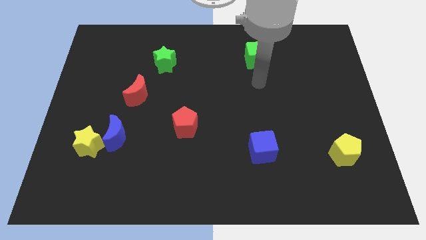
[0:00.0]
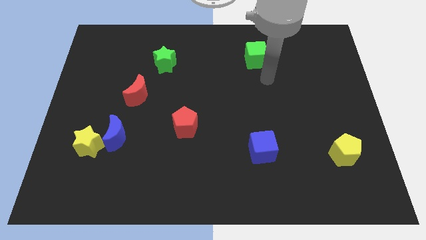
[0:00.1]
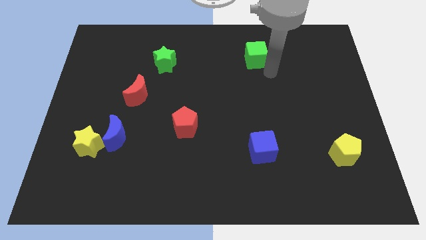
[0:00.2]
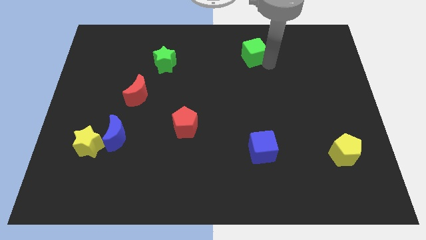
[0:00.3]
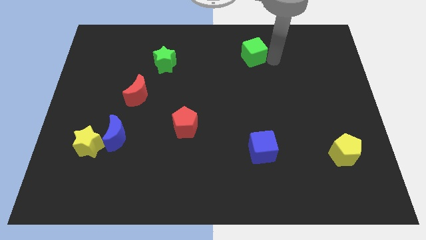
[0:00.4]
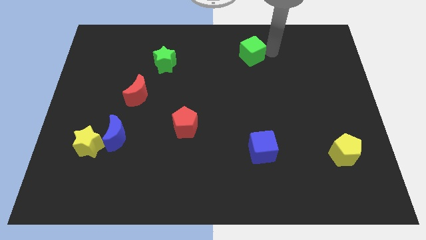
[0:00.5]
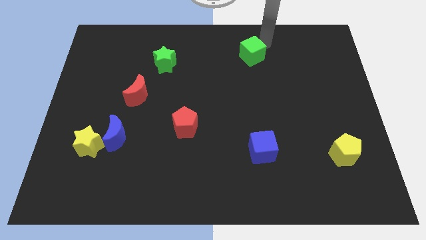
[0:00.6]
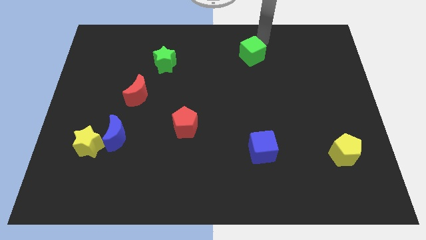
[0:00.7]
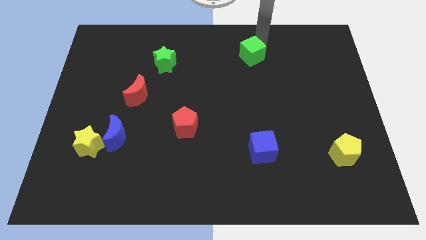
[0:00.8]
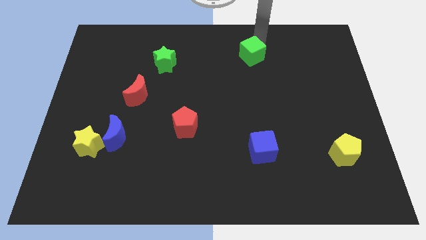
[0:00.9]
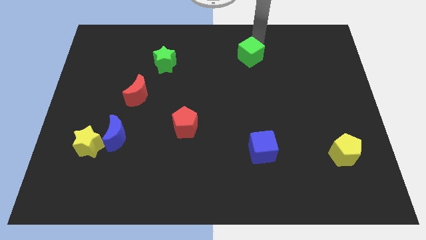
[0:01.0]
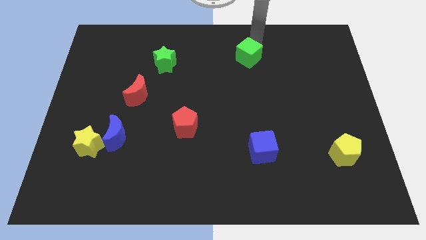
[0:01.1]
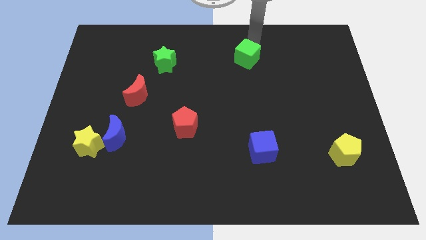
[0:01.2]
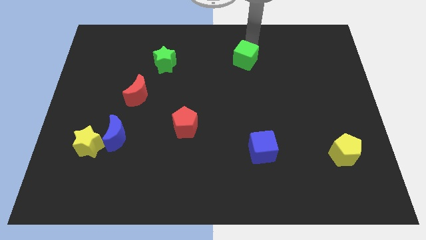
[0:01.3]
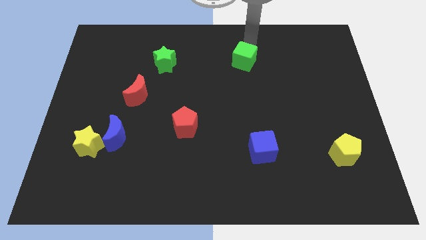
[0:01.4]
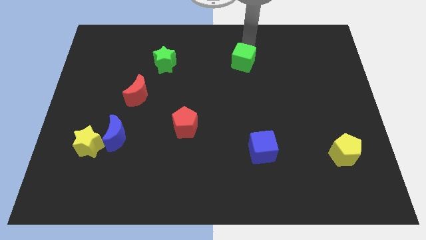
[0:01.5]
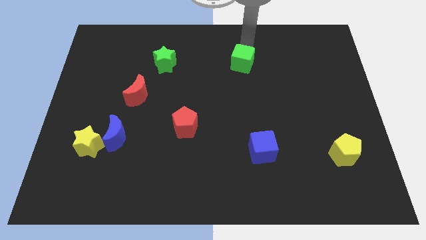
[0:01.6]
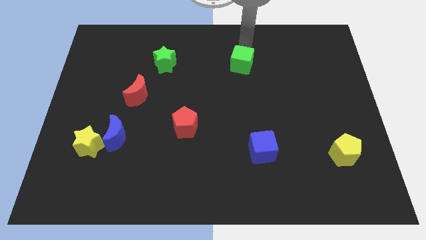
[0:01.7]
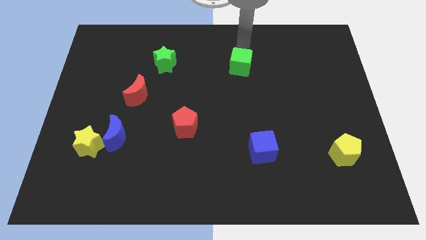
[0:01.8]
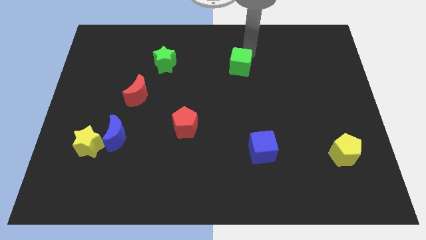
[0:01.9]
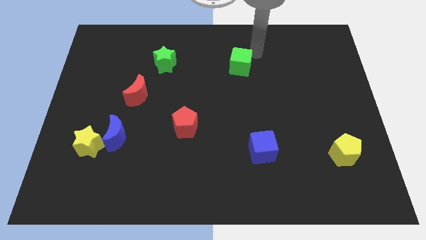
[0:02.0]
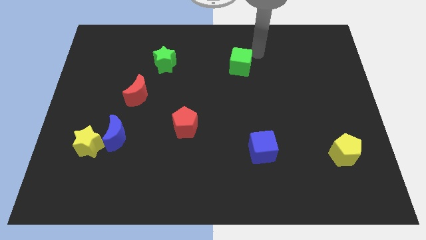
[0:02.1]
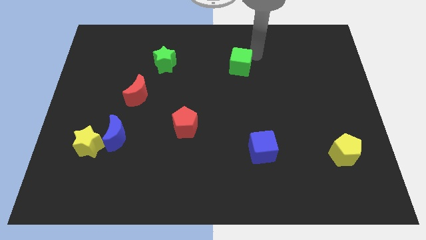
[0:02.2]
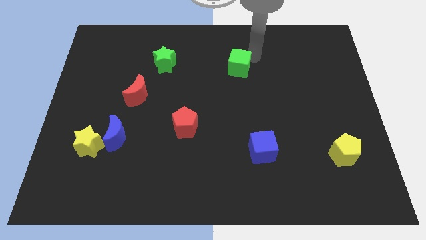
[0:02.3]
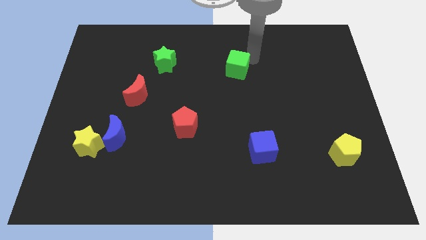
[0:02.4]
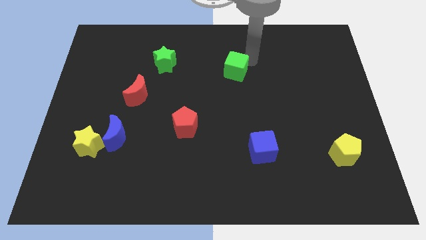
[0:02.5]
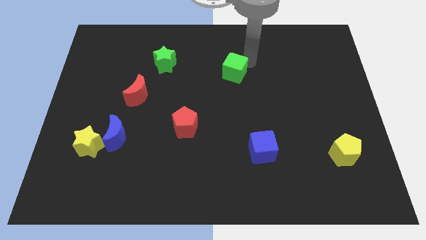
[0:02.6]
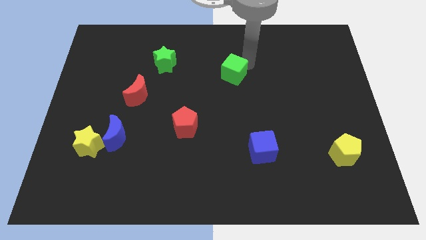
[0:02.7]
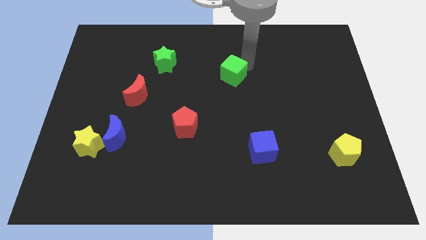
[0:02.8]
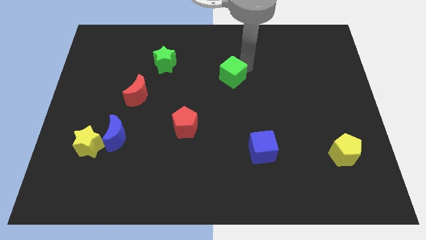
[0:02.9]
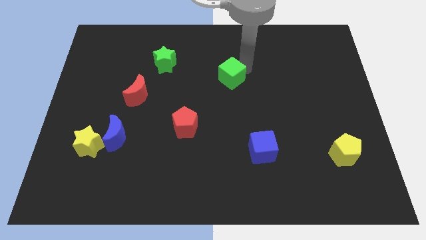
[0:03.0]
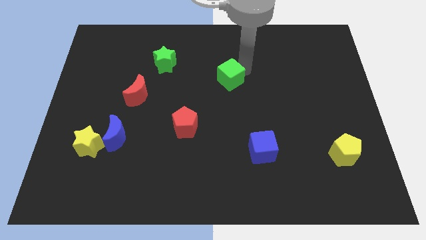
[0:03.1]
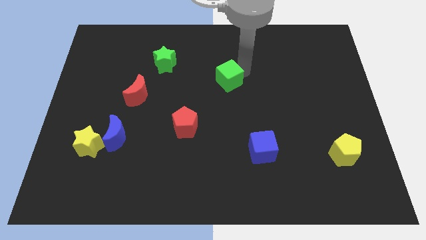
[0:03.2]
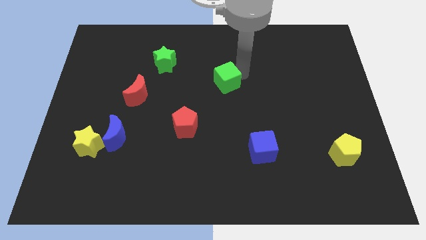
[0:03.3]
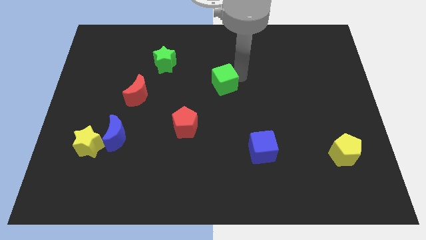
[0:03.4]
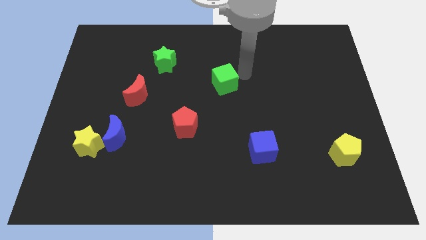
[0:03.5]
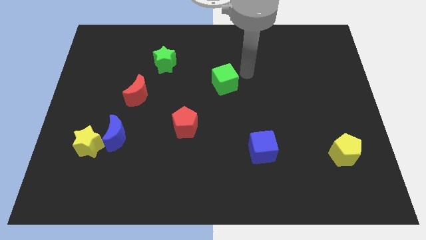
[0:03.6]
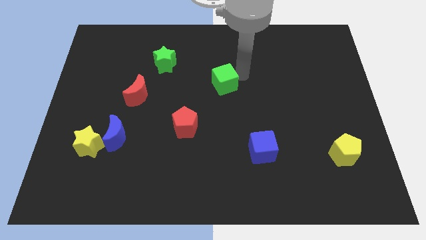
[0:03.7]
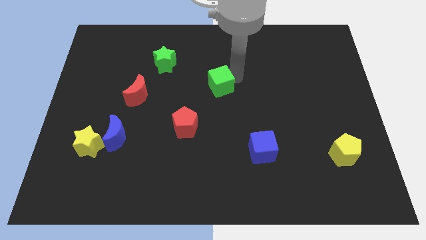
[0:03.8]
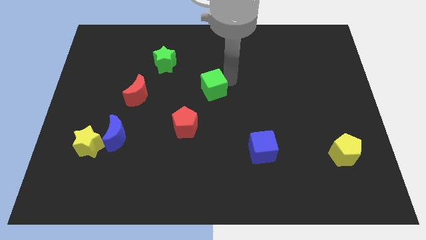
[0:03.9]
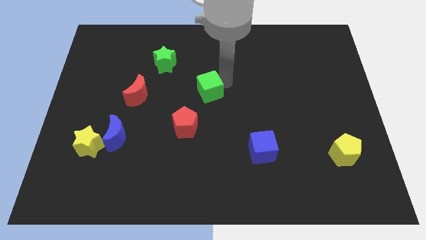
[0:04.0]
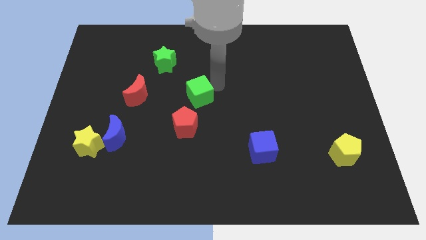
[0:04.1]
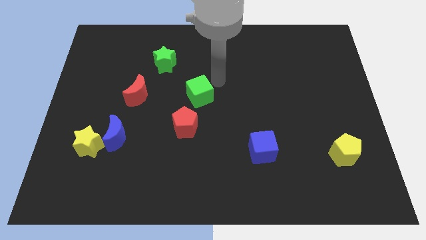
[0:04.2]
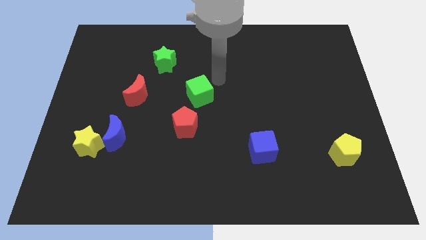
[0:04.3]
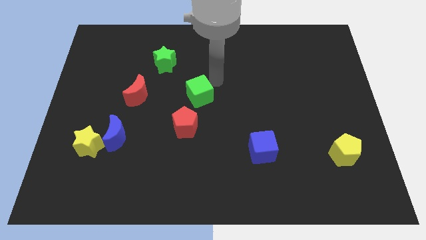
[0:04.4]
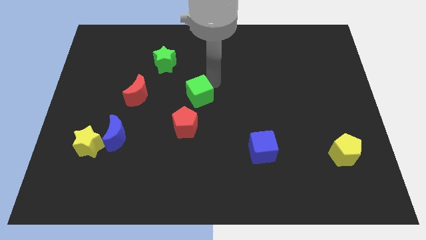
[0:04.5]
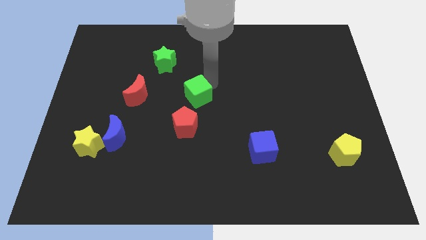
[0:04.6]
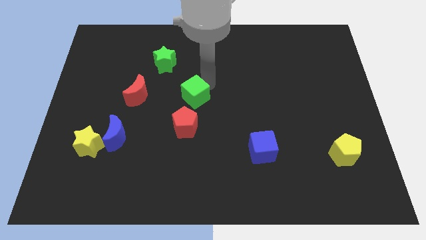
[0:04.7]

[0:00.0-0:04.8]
push the green cube down and left diagonally

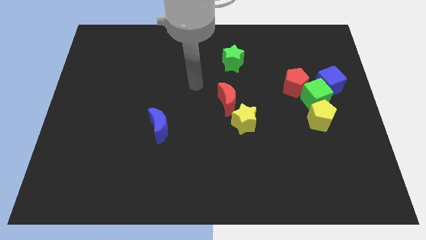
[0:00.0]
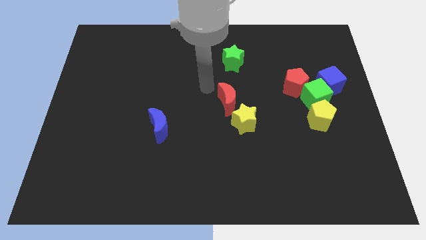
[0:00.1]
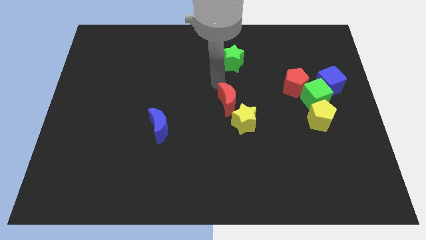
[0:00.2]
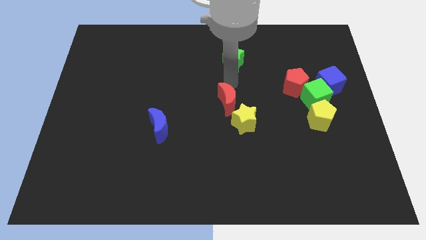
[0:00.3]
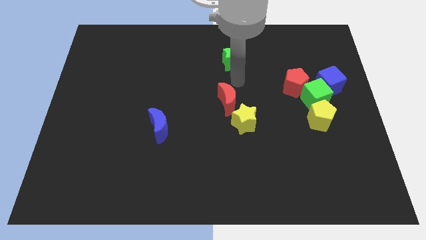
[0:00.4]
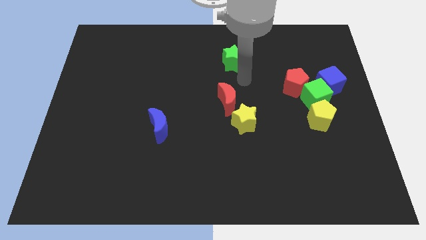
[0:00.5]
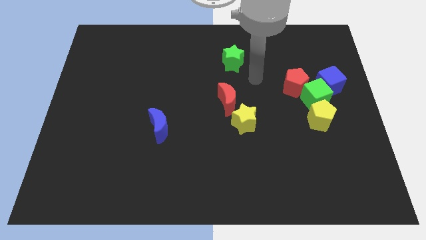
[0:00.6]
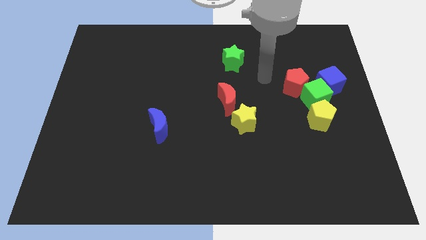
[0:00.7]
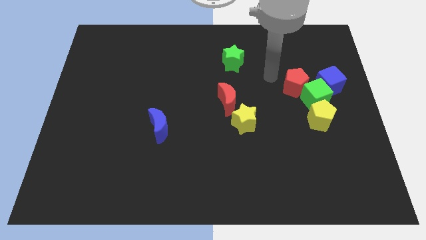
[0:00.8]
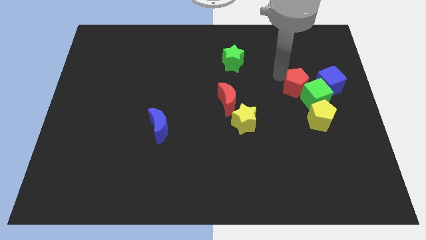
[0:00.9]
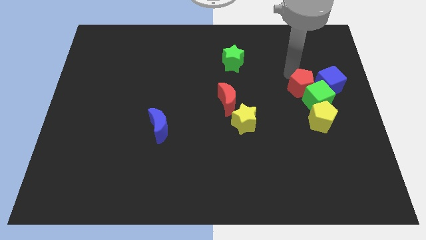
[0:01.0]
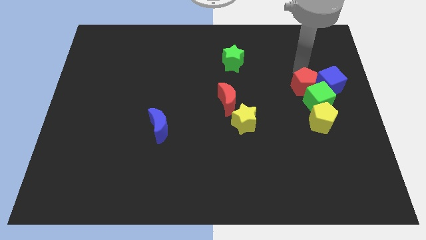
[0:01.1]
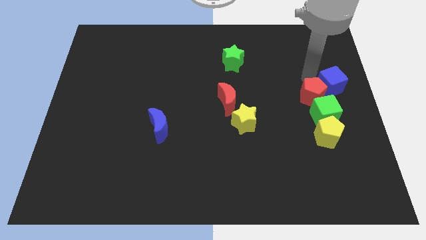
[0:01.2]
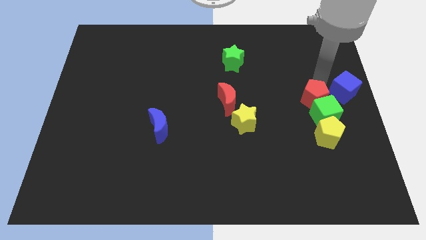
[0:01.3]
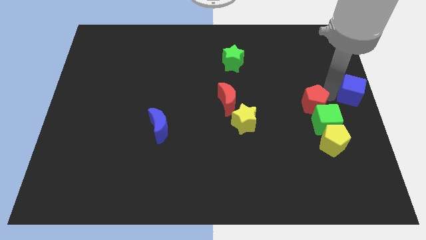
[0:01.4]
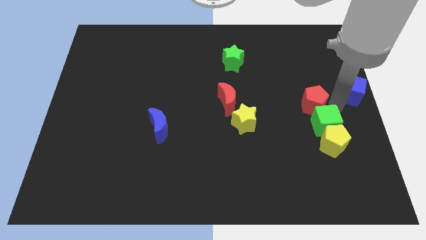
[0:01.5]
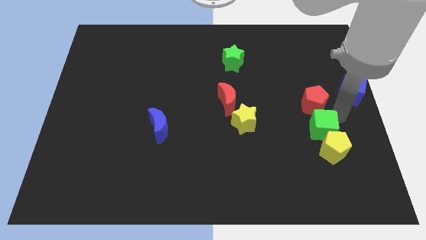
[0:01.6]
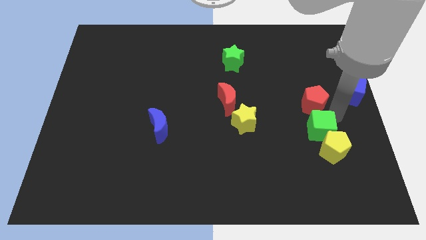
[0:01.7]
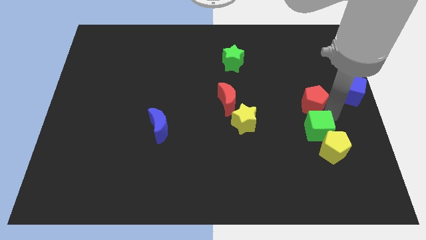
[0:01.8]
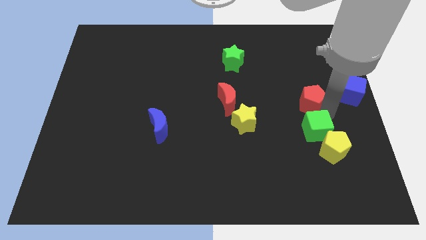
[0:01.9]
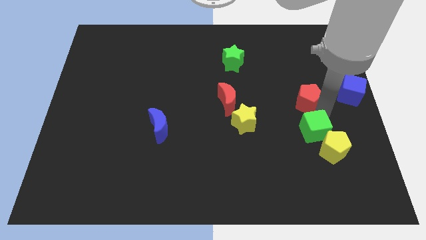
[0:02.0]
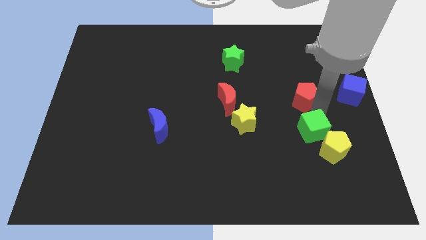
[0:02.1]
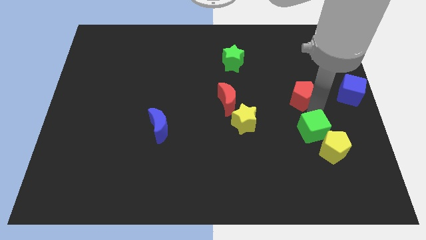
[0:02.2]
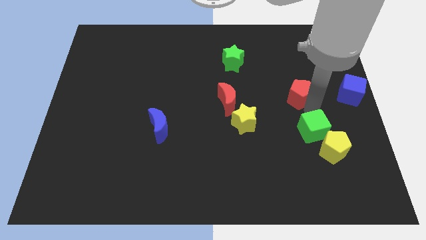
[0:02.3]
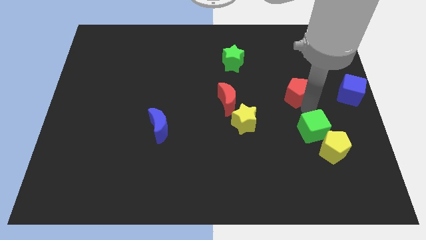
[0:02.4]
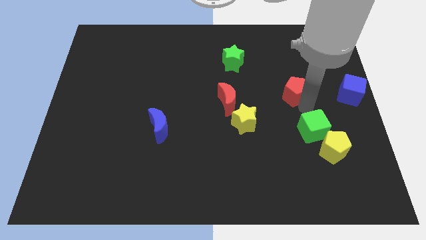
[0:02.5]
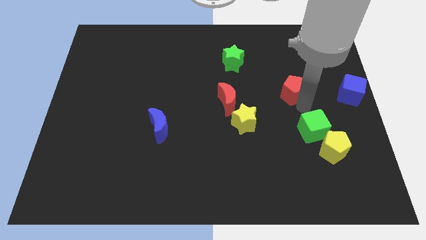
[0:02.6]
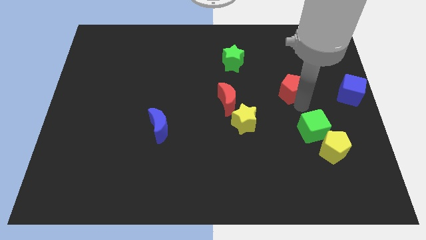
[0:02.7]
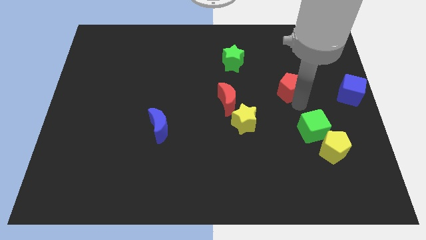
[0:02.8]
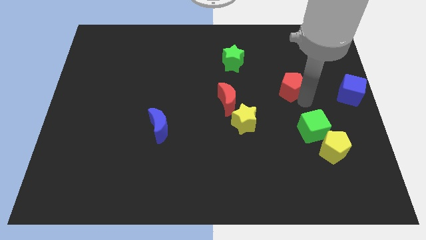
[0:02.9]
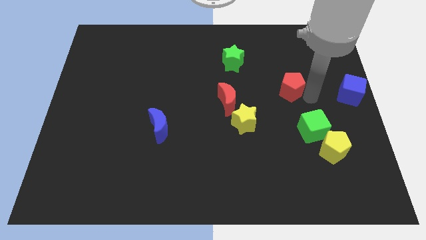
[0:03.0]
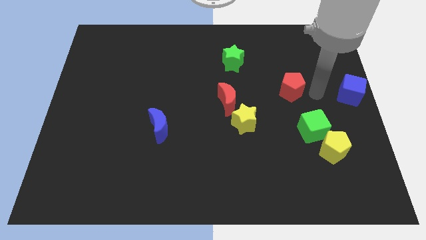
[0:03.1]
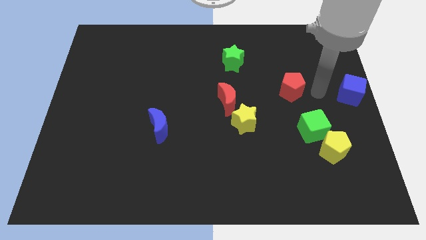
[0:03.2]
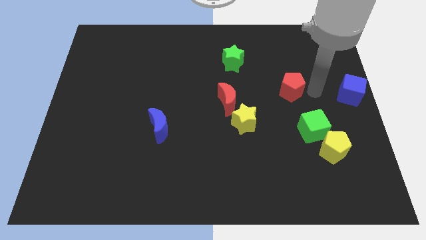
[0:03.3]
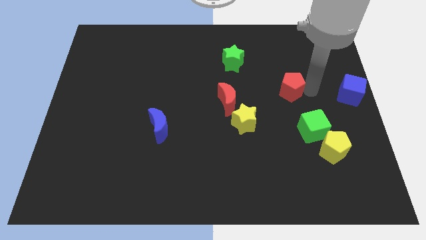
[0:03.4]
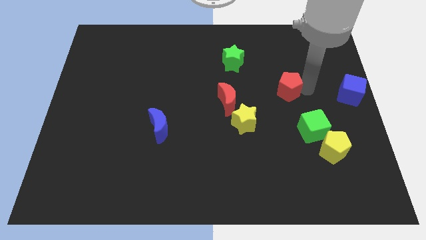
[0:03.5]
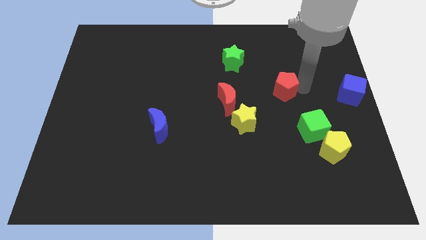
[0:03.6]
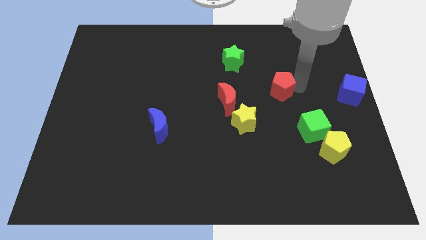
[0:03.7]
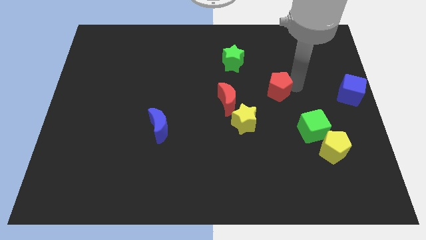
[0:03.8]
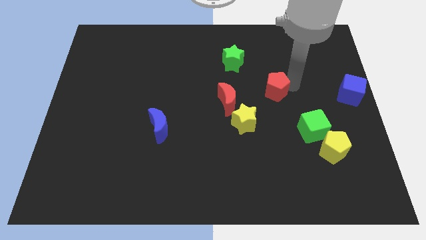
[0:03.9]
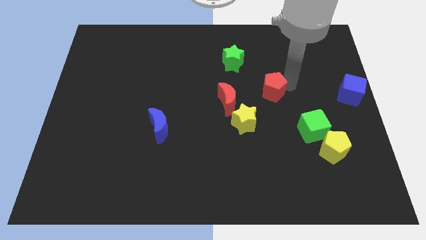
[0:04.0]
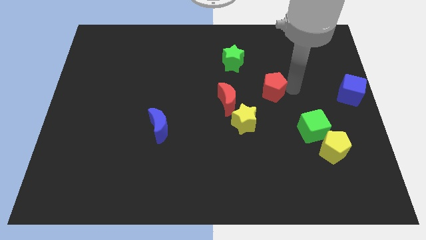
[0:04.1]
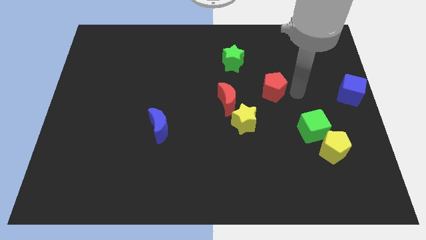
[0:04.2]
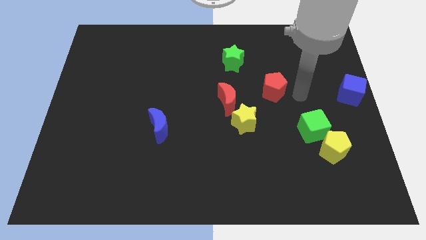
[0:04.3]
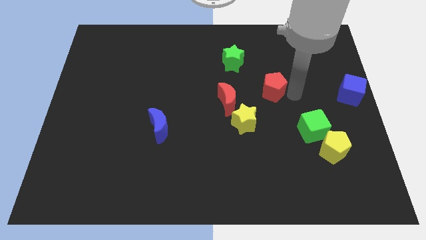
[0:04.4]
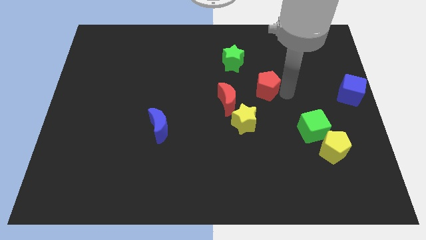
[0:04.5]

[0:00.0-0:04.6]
move the red pentagon to the left a little
